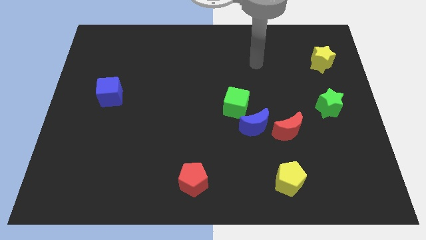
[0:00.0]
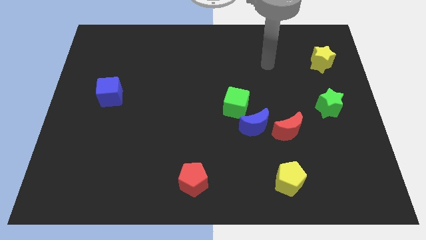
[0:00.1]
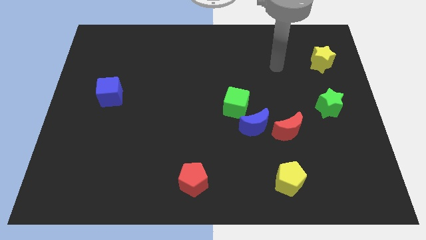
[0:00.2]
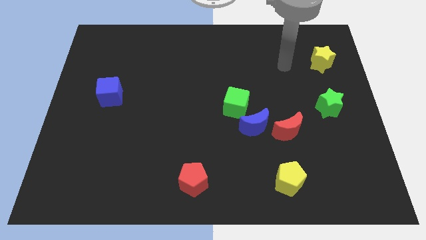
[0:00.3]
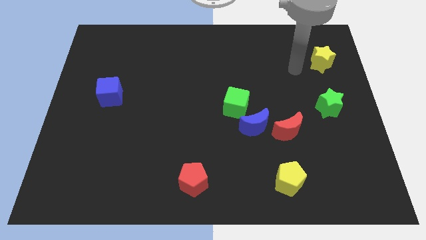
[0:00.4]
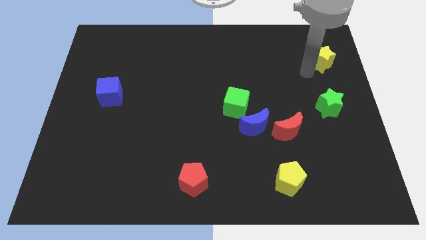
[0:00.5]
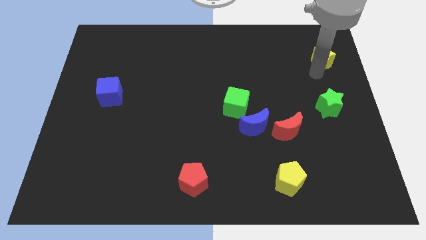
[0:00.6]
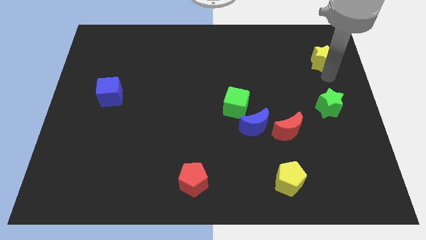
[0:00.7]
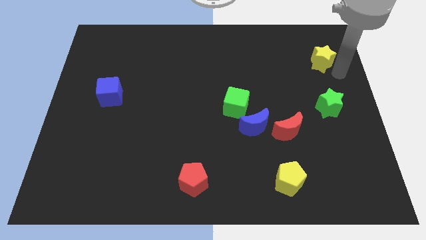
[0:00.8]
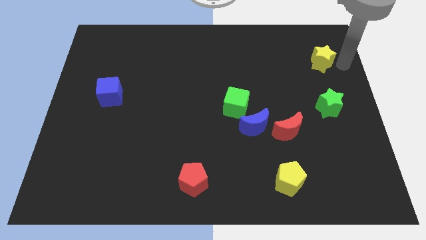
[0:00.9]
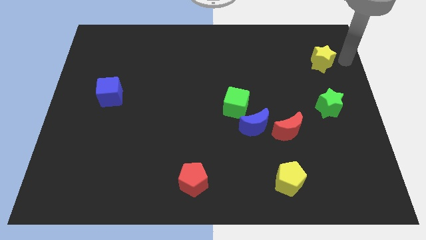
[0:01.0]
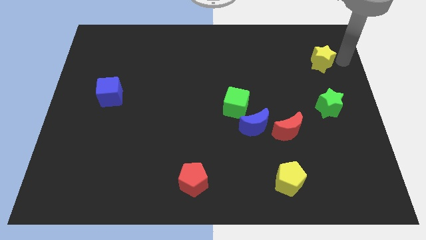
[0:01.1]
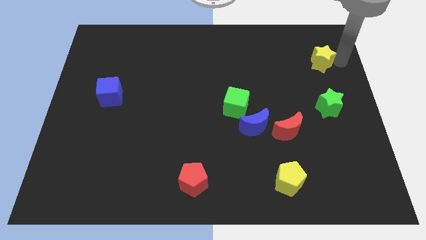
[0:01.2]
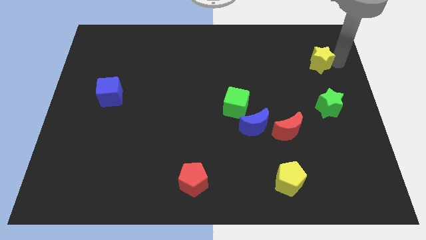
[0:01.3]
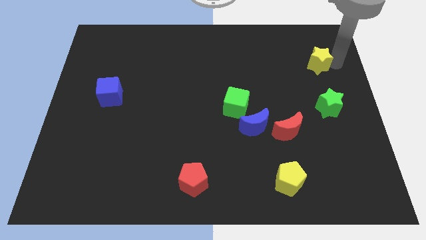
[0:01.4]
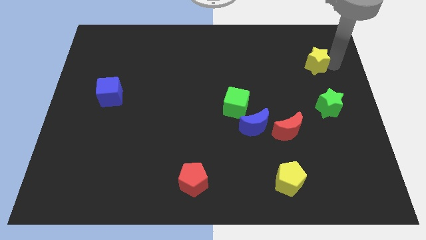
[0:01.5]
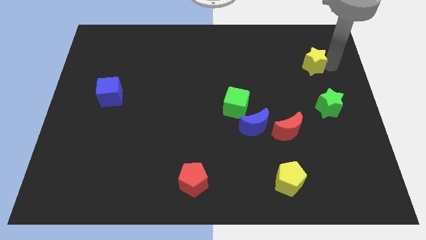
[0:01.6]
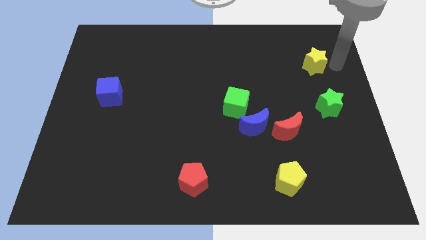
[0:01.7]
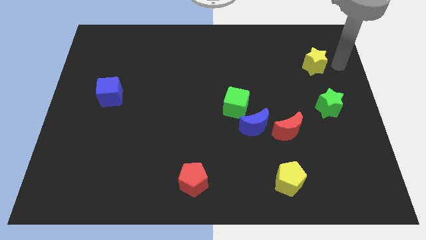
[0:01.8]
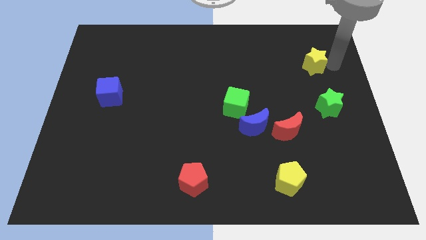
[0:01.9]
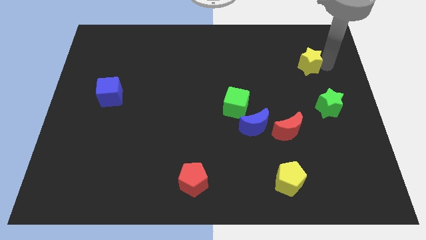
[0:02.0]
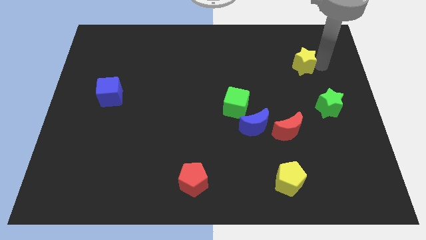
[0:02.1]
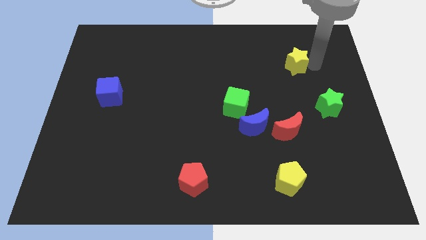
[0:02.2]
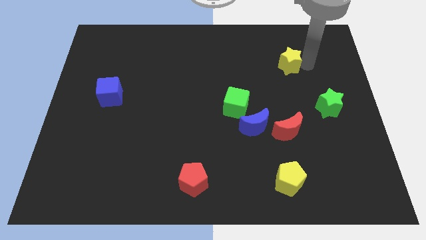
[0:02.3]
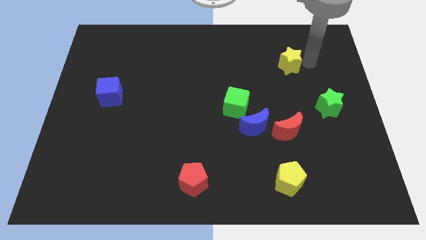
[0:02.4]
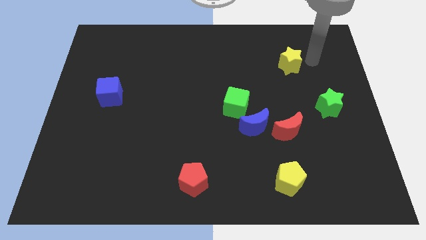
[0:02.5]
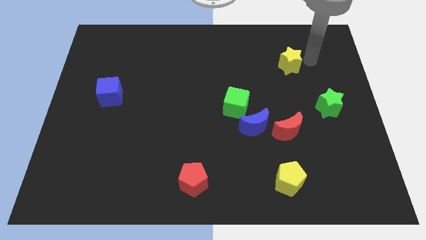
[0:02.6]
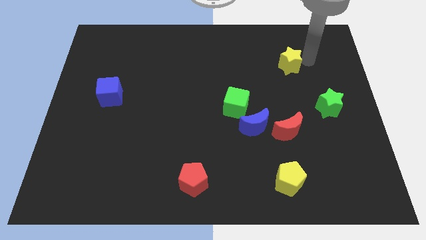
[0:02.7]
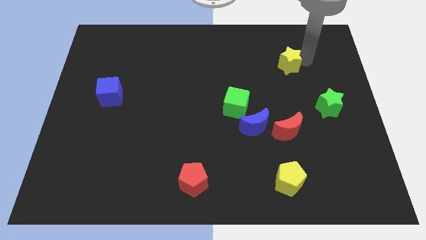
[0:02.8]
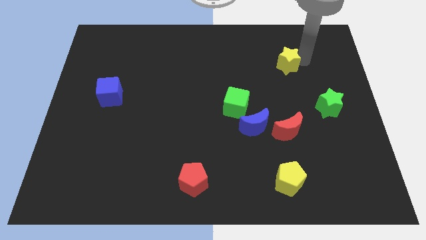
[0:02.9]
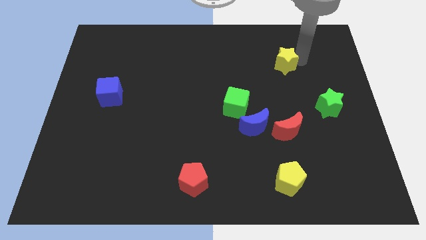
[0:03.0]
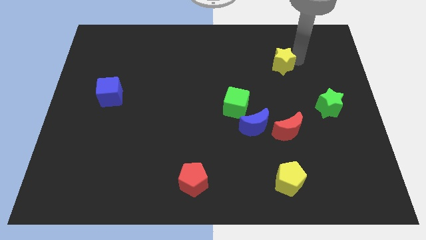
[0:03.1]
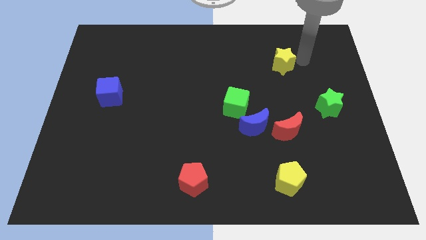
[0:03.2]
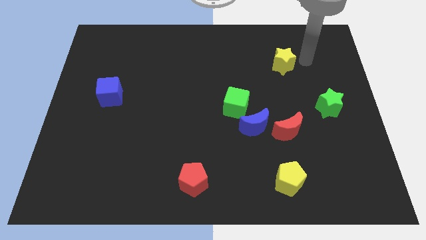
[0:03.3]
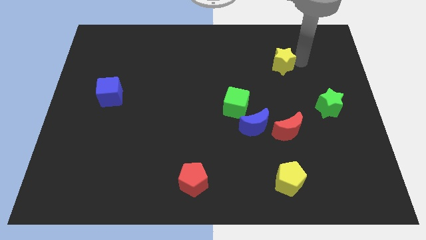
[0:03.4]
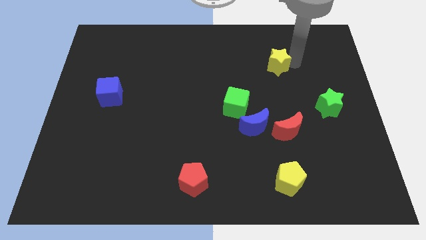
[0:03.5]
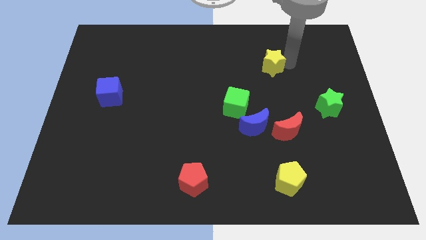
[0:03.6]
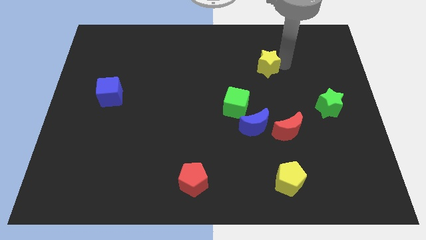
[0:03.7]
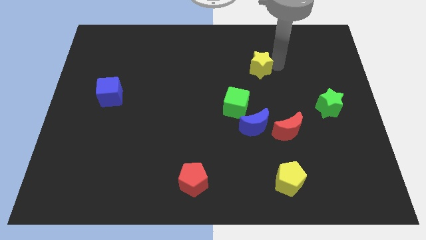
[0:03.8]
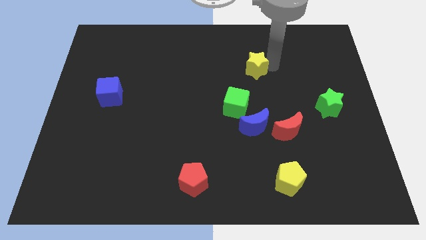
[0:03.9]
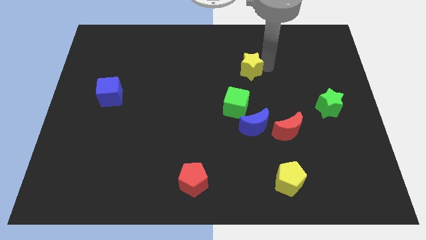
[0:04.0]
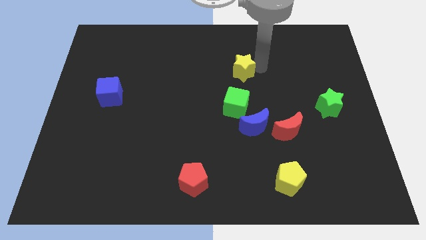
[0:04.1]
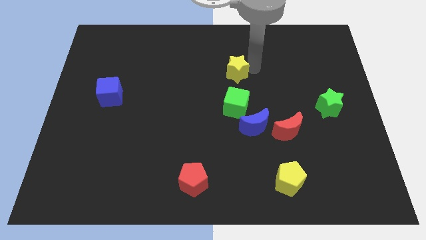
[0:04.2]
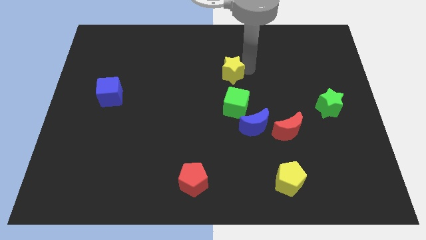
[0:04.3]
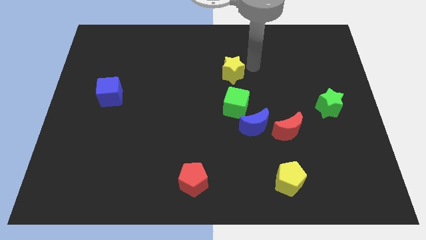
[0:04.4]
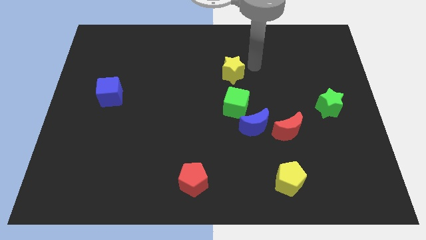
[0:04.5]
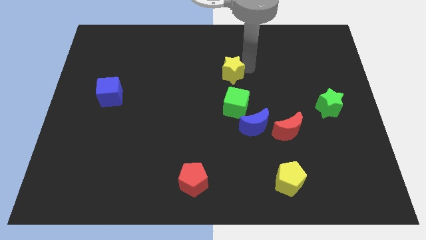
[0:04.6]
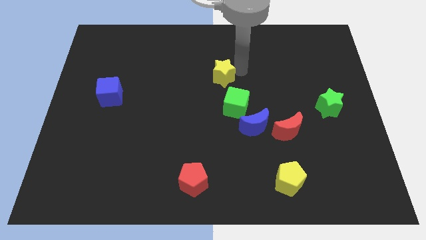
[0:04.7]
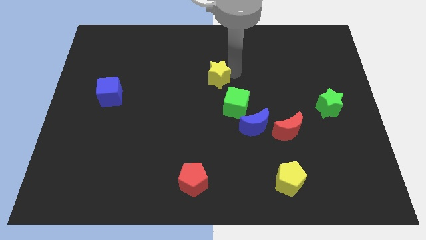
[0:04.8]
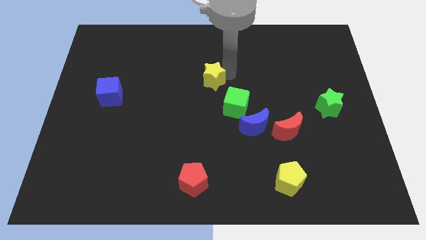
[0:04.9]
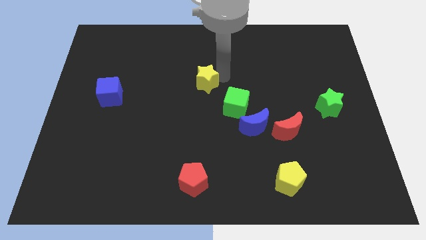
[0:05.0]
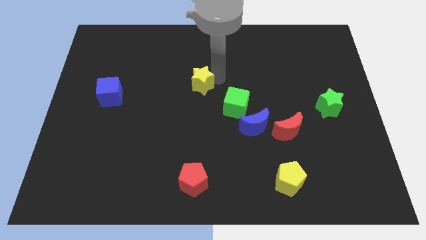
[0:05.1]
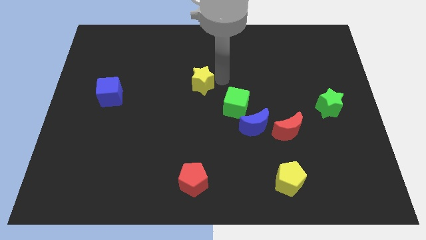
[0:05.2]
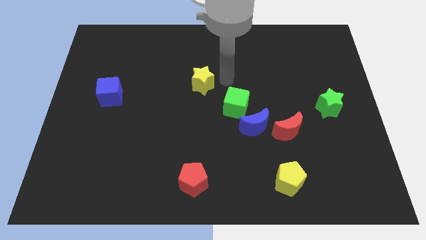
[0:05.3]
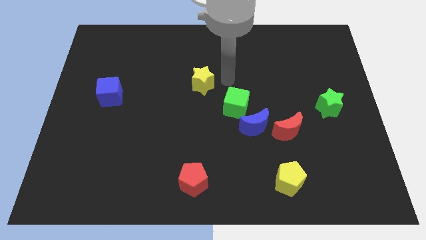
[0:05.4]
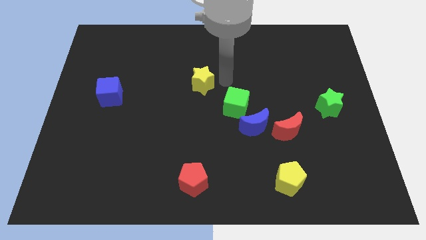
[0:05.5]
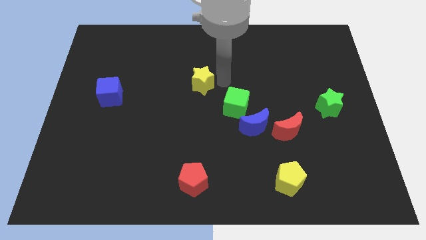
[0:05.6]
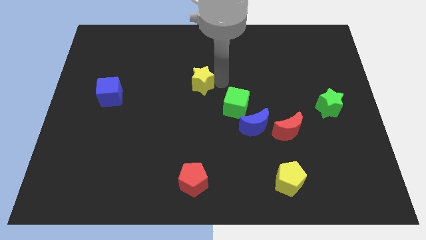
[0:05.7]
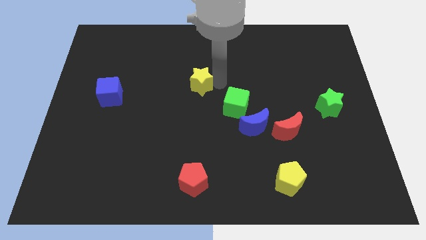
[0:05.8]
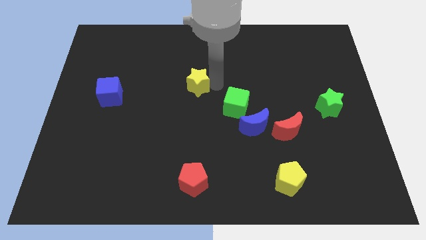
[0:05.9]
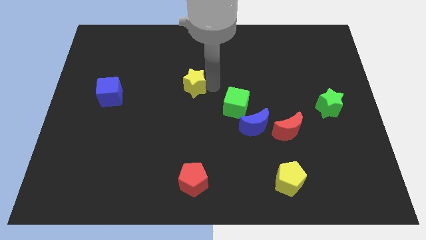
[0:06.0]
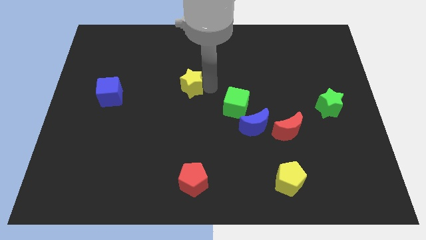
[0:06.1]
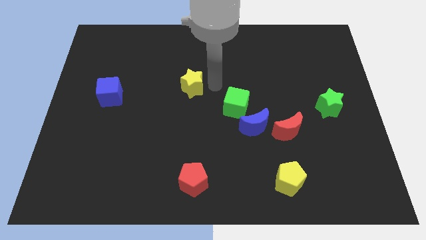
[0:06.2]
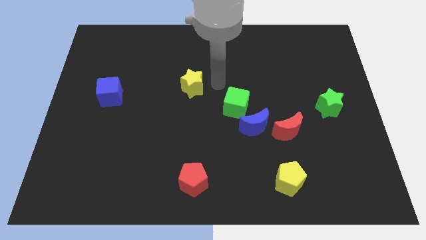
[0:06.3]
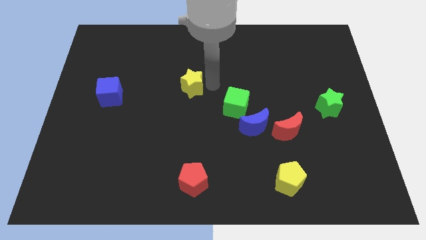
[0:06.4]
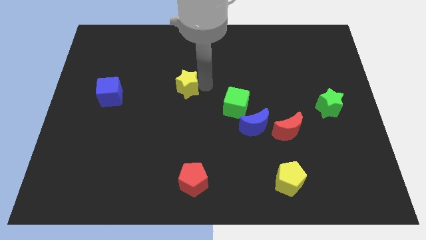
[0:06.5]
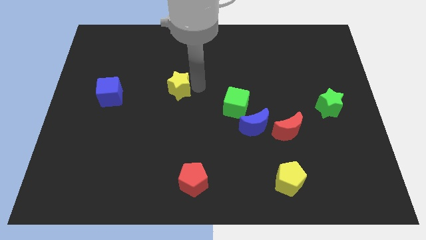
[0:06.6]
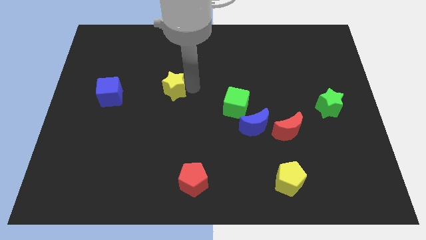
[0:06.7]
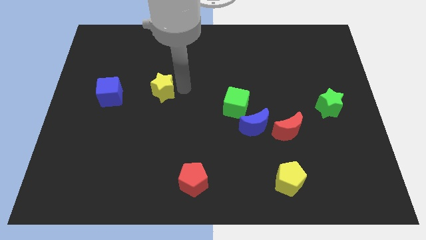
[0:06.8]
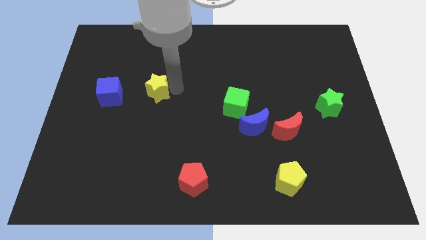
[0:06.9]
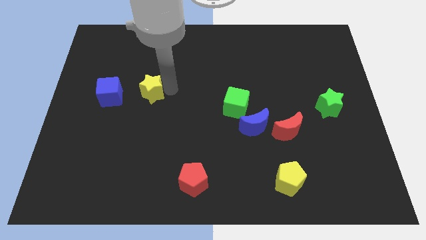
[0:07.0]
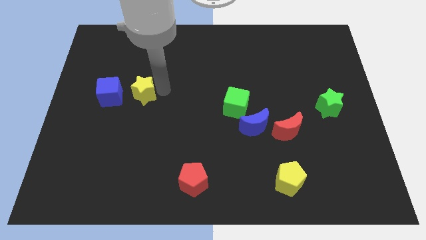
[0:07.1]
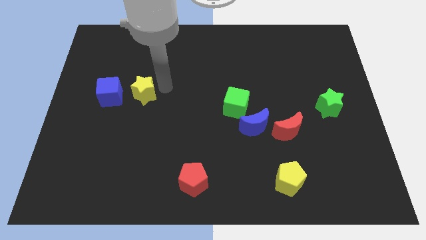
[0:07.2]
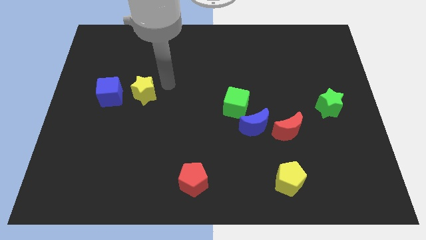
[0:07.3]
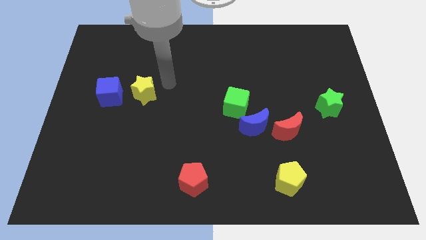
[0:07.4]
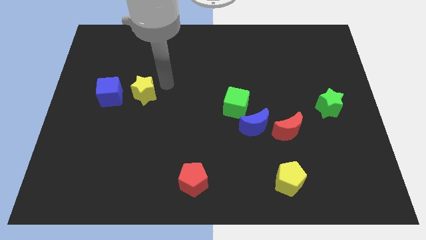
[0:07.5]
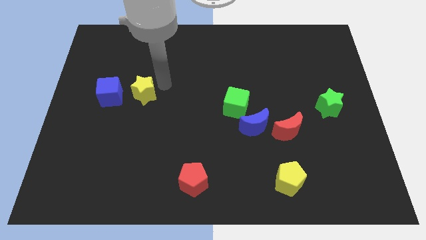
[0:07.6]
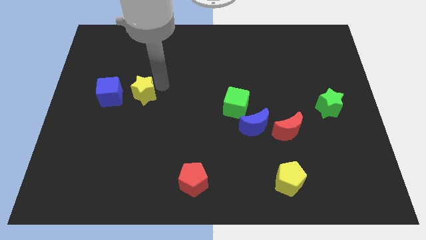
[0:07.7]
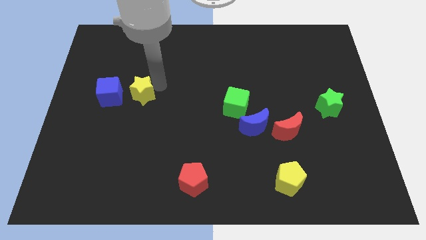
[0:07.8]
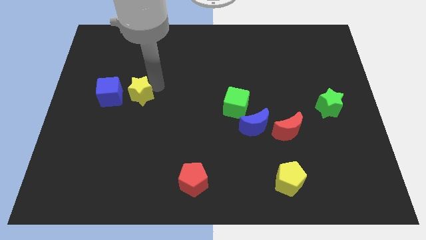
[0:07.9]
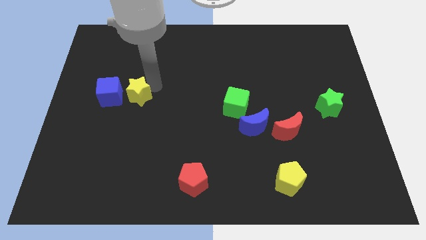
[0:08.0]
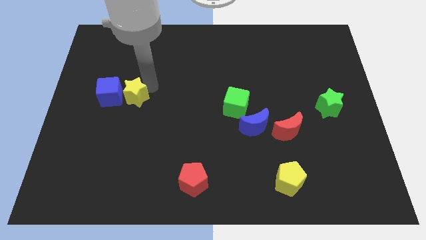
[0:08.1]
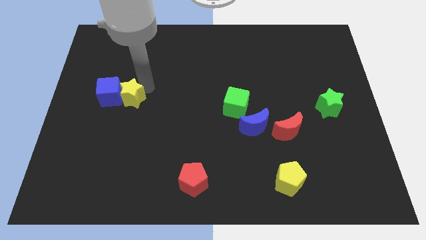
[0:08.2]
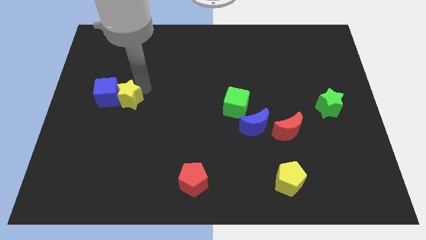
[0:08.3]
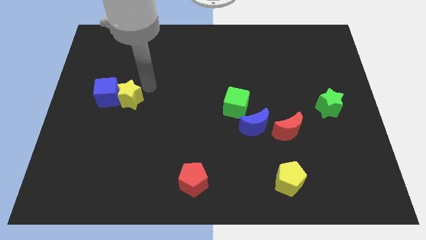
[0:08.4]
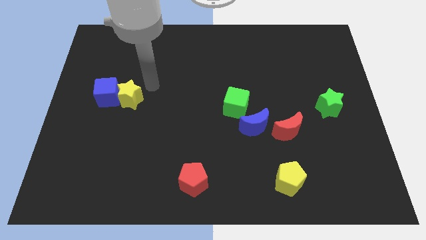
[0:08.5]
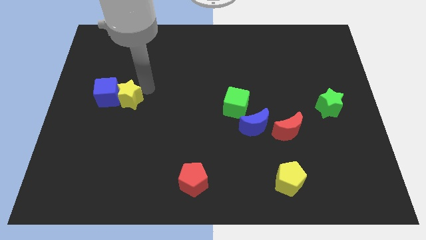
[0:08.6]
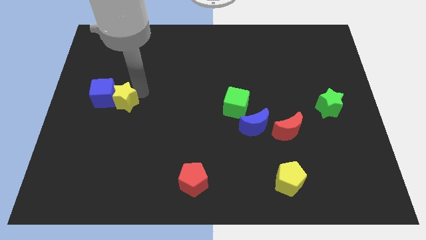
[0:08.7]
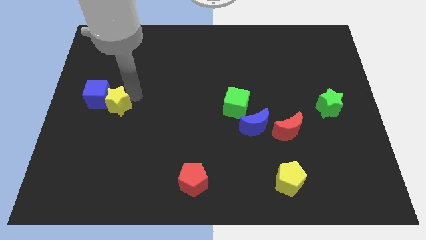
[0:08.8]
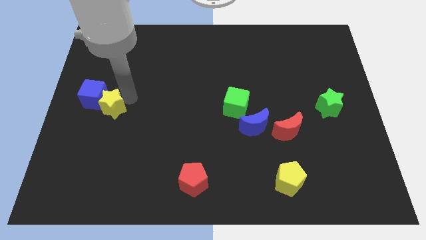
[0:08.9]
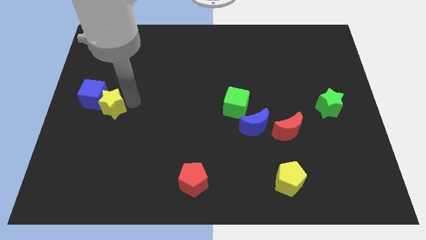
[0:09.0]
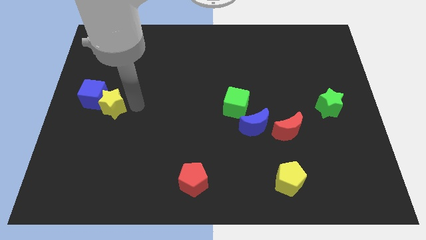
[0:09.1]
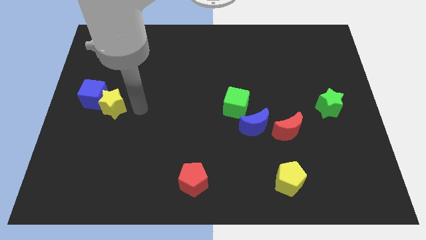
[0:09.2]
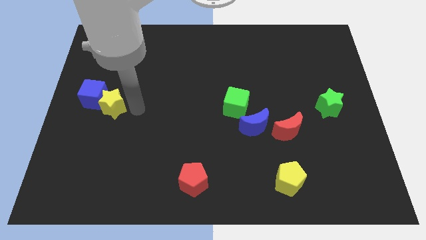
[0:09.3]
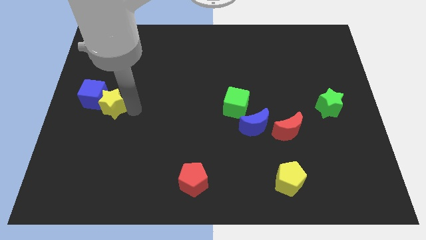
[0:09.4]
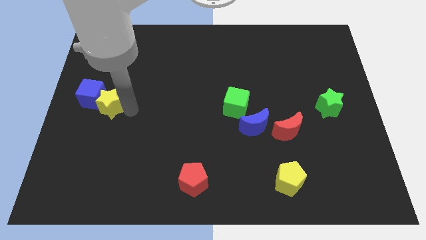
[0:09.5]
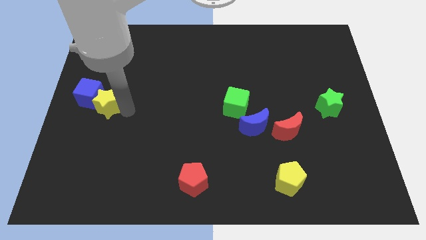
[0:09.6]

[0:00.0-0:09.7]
move the yellow star to the center left
